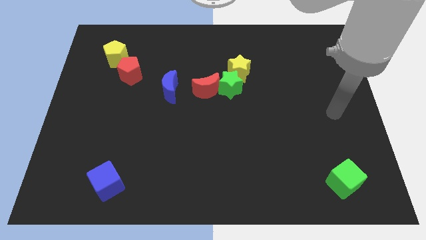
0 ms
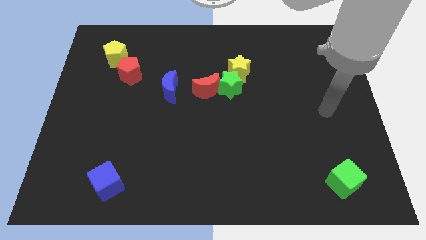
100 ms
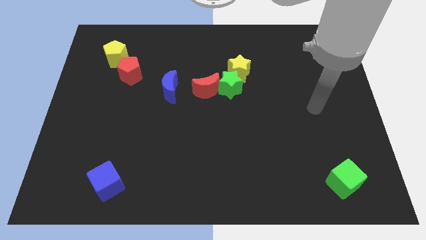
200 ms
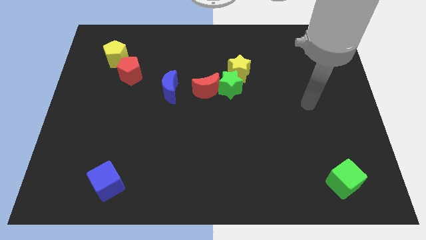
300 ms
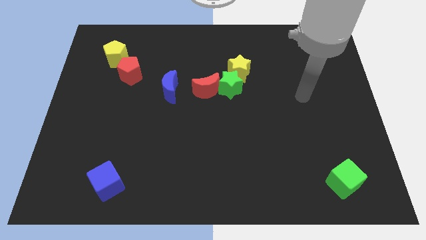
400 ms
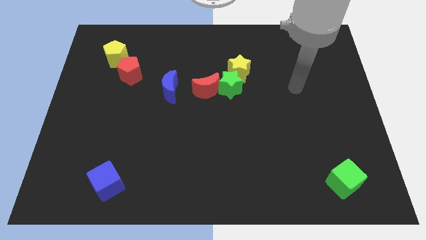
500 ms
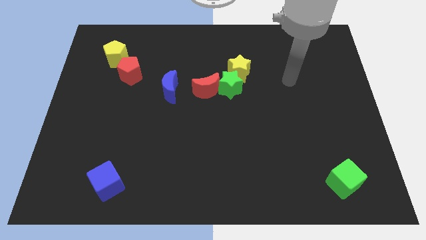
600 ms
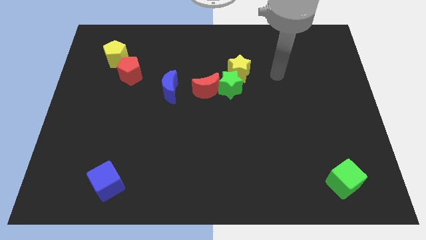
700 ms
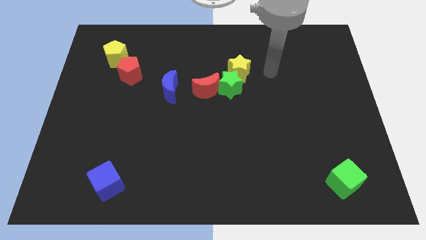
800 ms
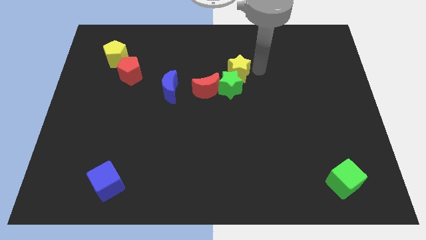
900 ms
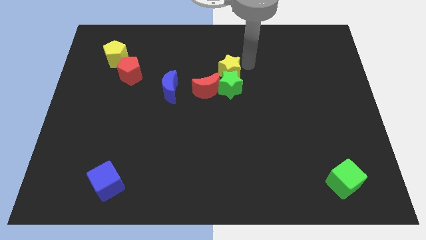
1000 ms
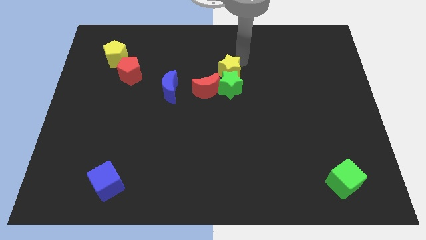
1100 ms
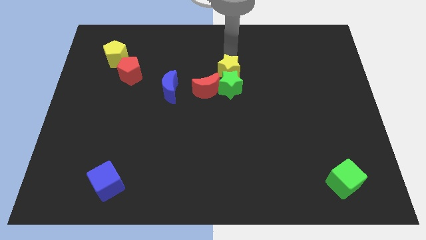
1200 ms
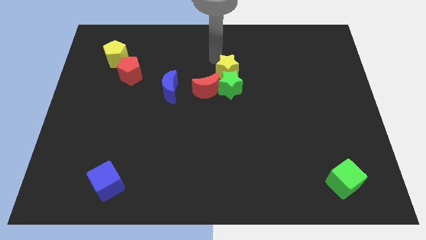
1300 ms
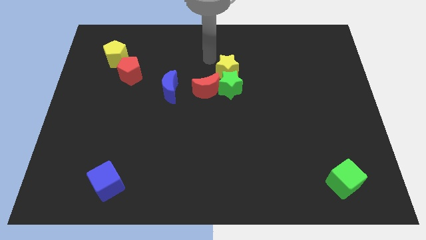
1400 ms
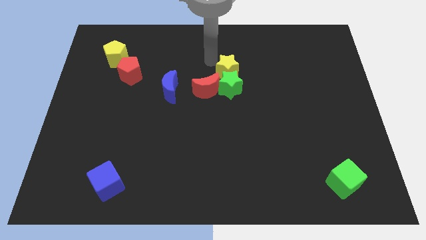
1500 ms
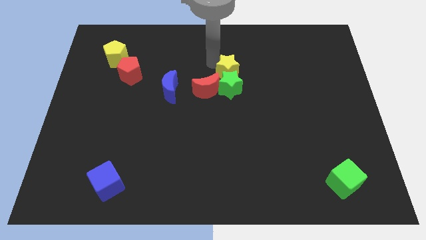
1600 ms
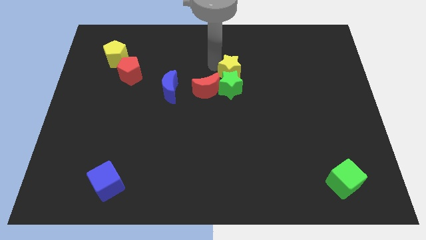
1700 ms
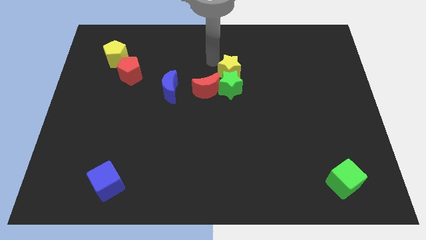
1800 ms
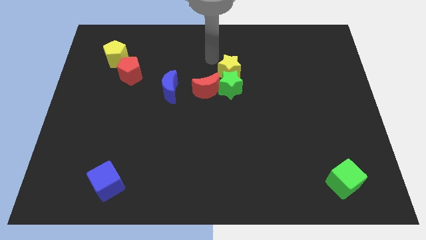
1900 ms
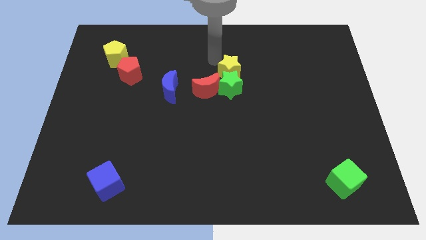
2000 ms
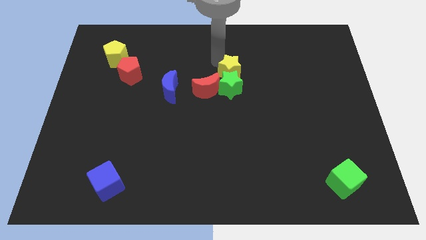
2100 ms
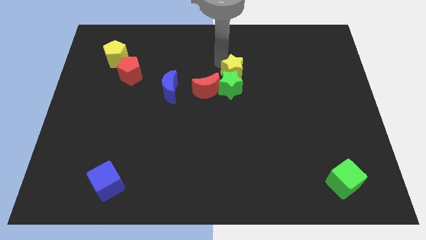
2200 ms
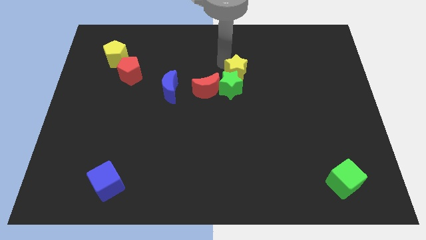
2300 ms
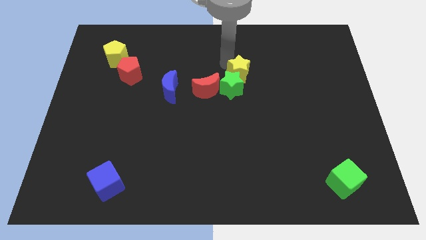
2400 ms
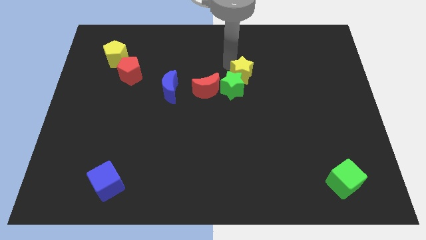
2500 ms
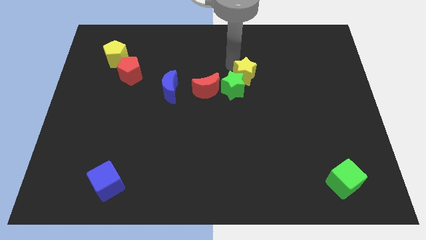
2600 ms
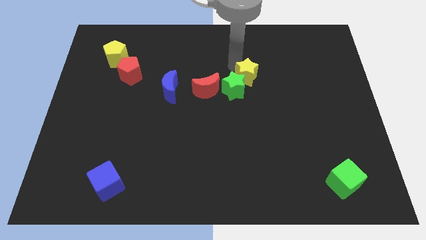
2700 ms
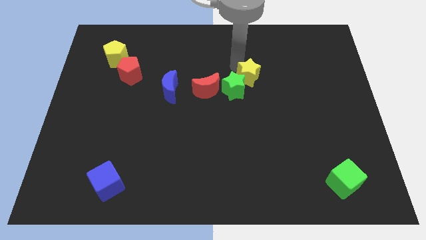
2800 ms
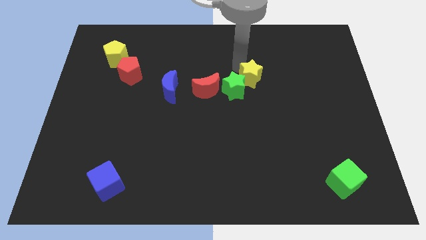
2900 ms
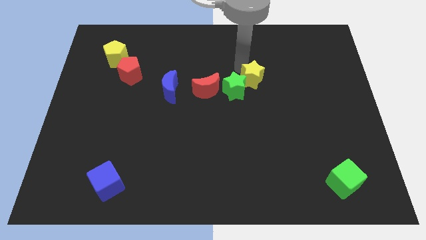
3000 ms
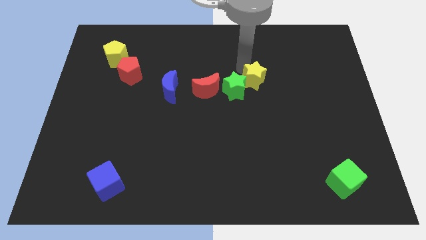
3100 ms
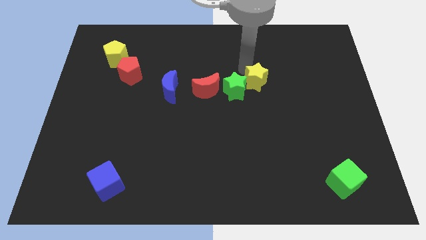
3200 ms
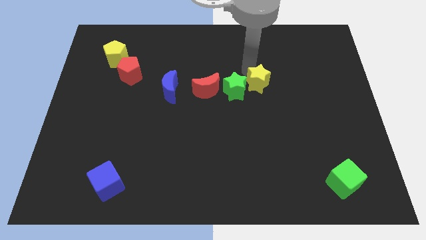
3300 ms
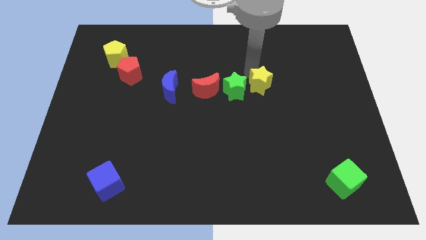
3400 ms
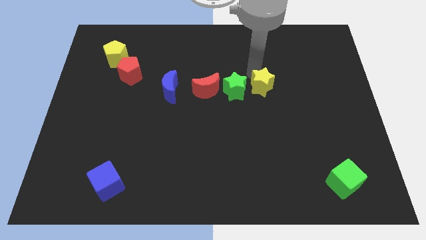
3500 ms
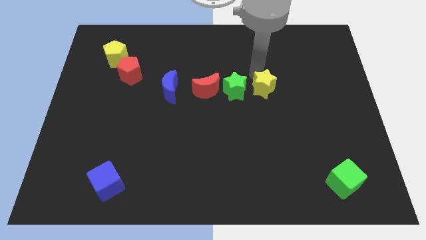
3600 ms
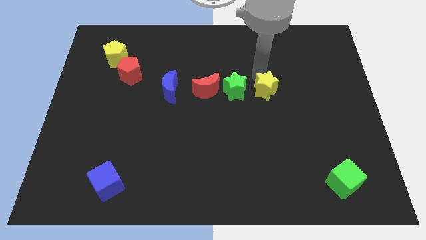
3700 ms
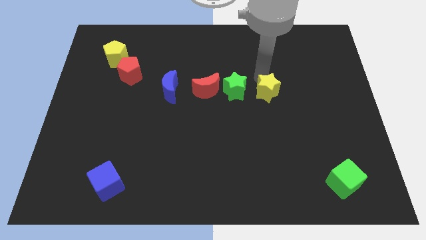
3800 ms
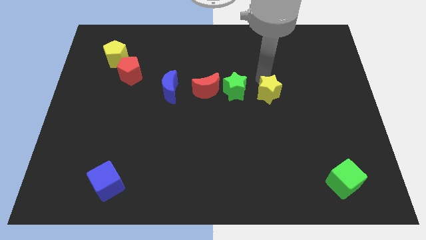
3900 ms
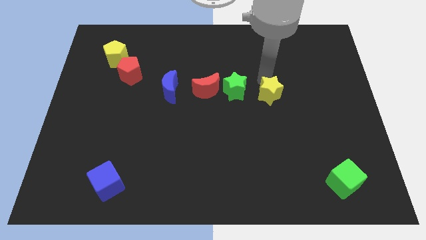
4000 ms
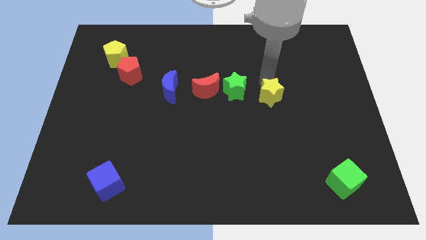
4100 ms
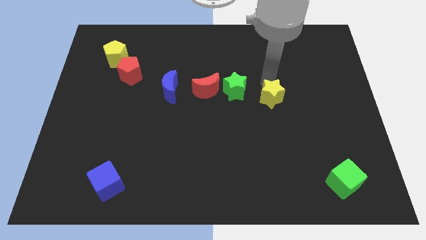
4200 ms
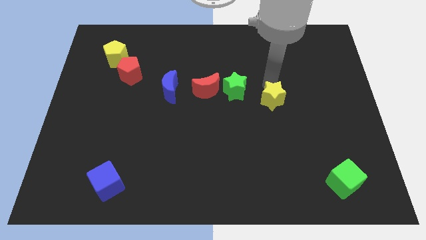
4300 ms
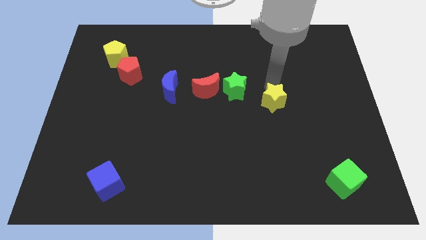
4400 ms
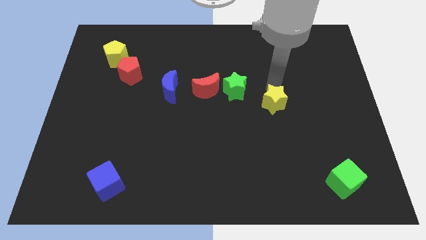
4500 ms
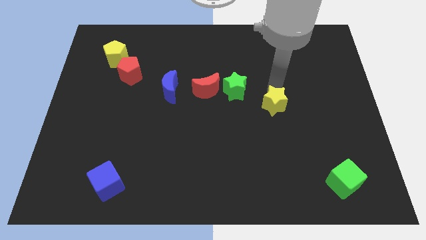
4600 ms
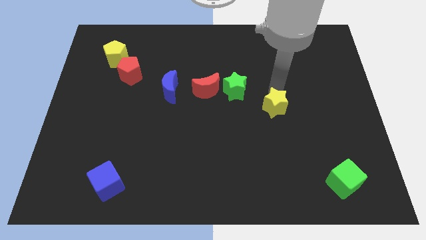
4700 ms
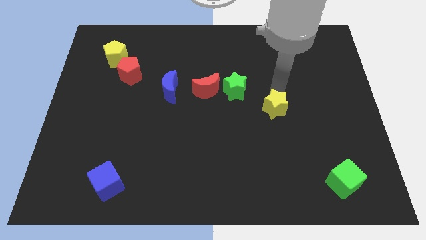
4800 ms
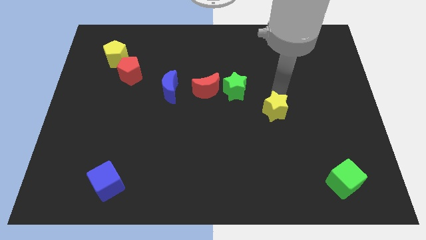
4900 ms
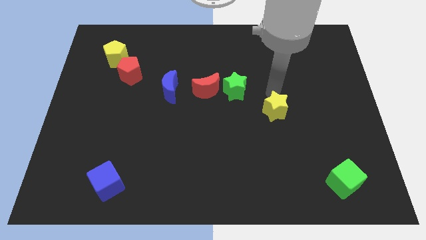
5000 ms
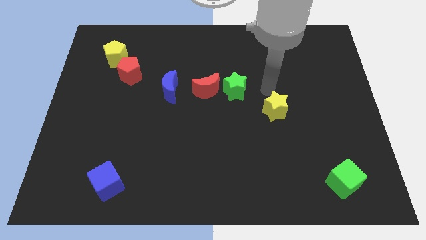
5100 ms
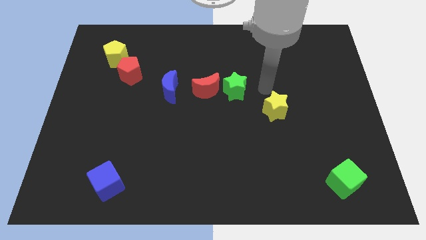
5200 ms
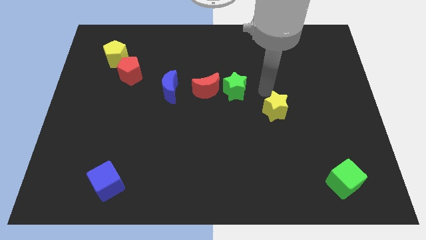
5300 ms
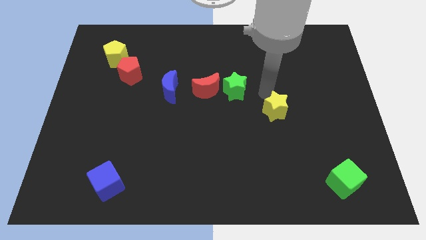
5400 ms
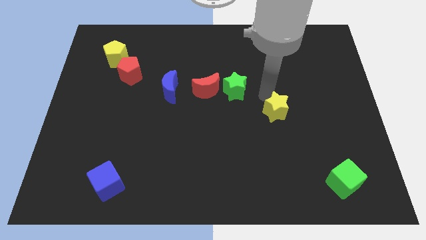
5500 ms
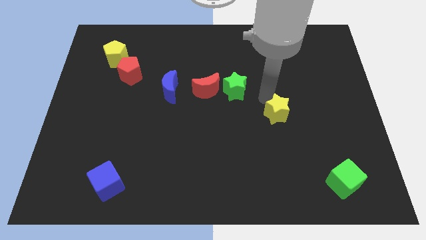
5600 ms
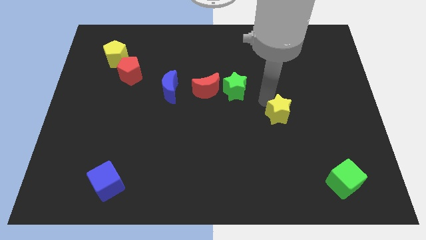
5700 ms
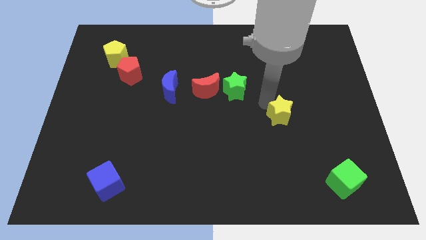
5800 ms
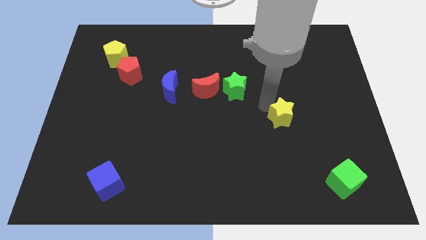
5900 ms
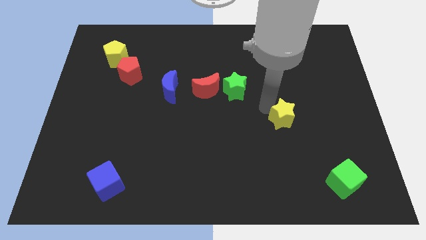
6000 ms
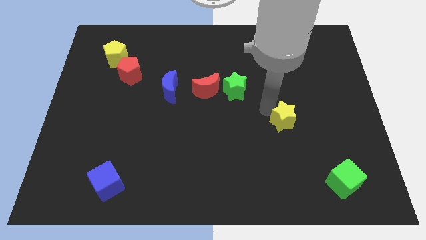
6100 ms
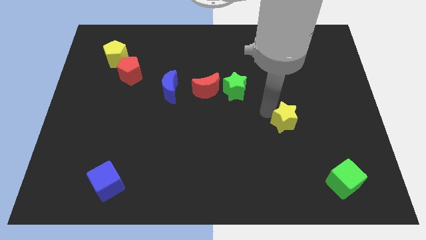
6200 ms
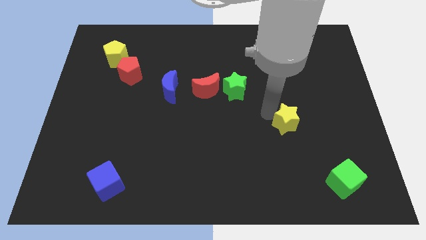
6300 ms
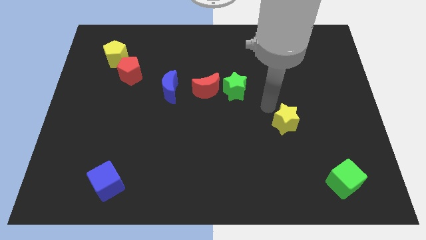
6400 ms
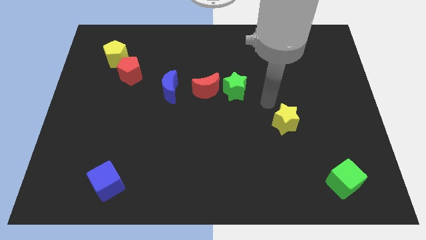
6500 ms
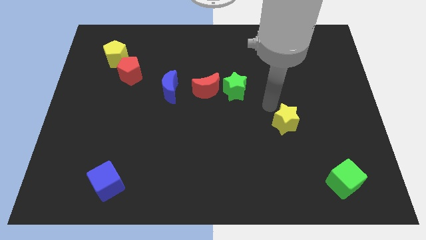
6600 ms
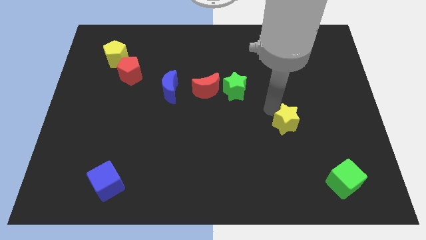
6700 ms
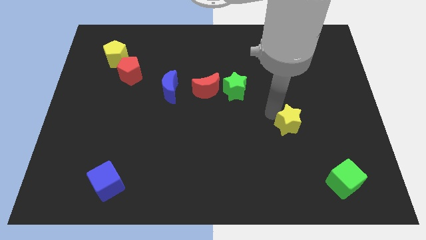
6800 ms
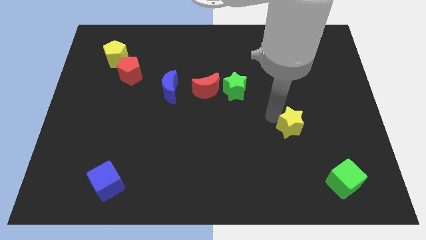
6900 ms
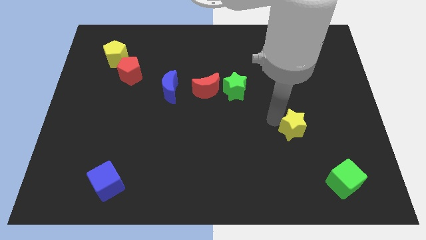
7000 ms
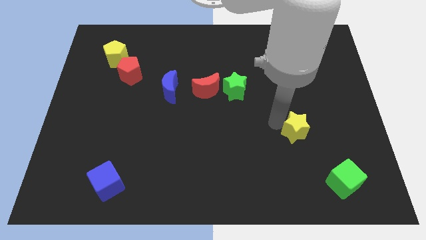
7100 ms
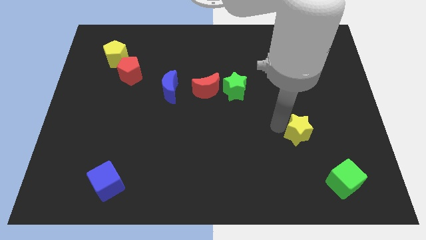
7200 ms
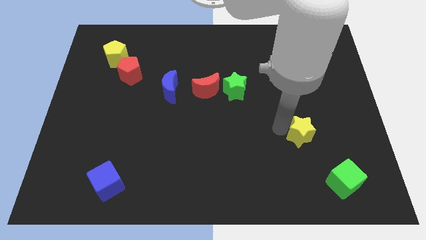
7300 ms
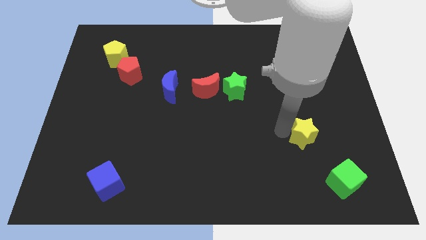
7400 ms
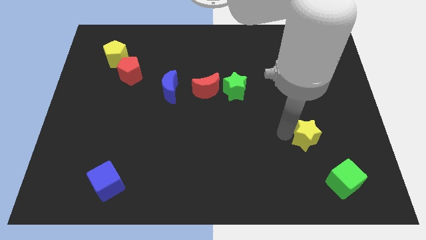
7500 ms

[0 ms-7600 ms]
push the yellow star to the top left of the green cube

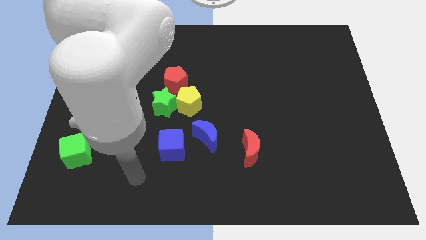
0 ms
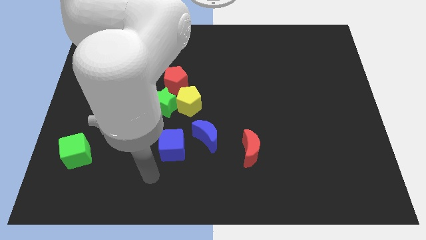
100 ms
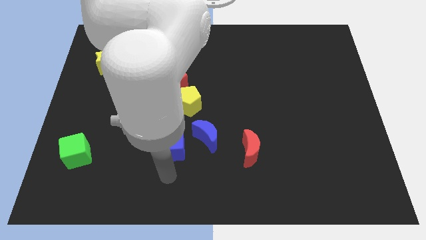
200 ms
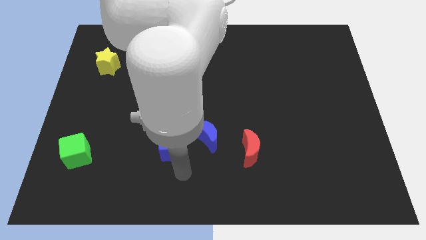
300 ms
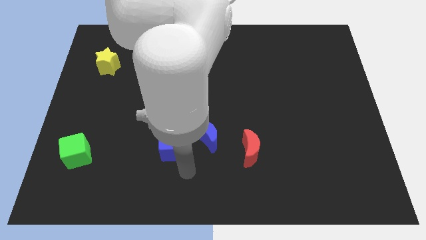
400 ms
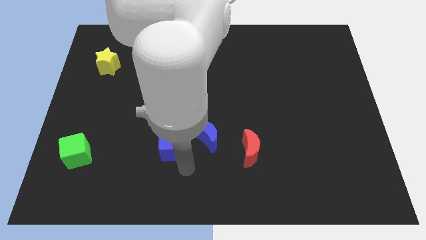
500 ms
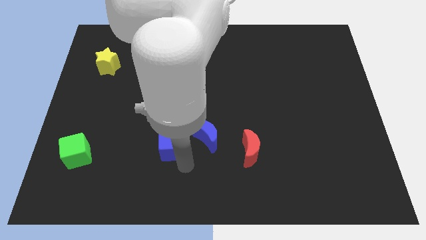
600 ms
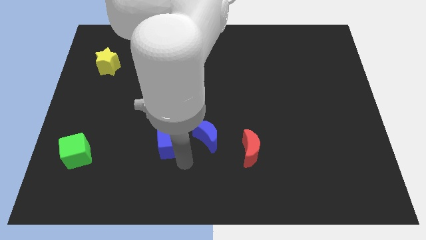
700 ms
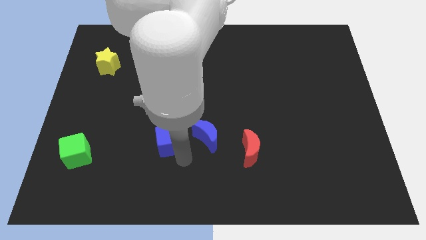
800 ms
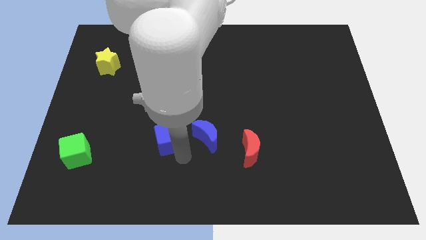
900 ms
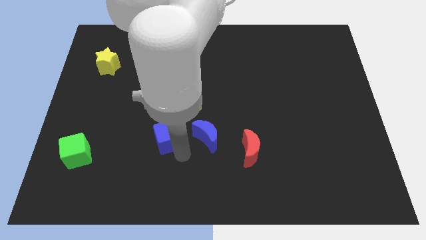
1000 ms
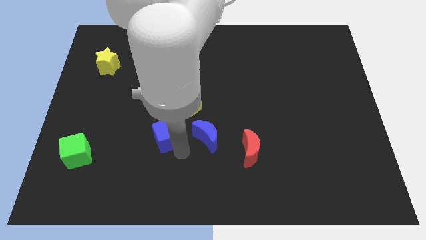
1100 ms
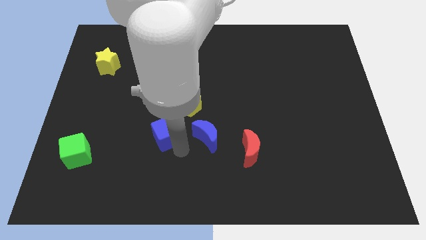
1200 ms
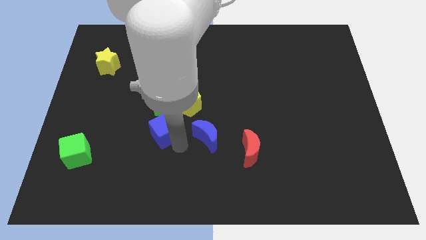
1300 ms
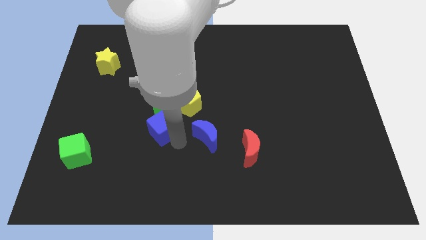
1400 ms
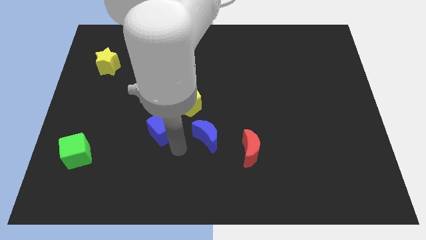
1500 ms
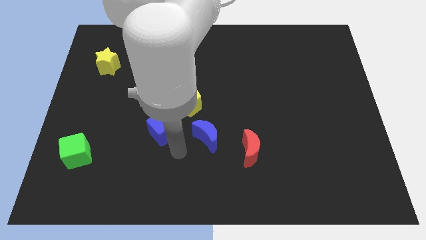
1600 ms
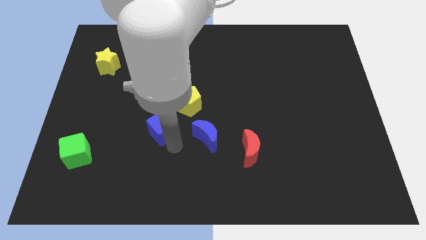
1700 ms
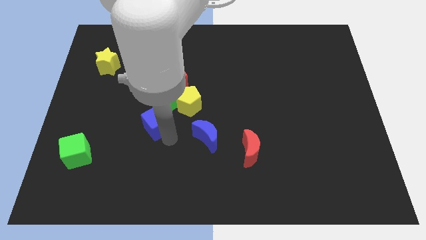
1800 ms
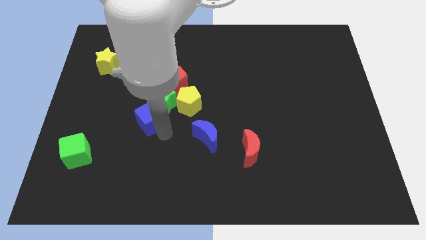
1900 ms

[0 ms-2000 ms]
move the blue cube to the left side of the yellow pentagon
